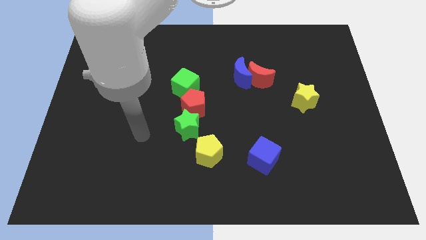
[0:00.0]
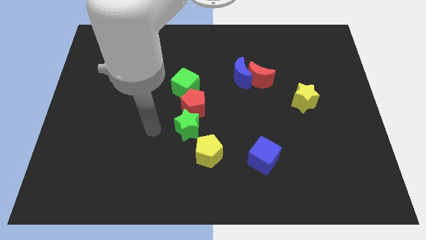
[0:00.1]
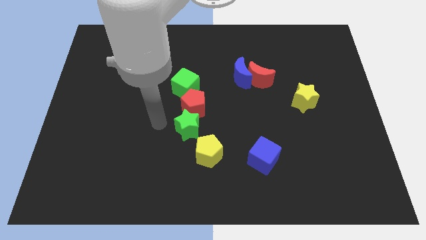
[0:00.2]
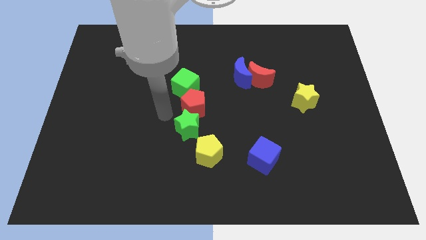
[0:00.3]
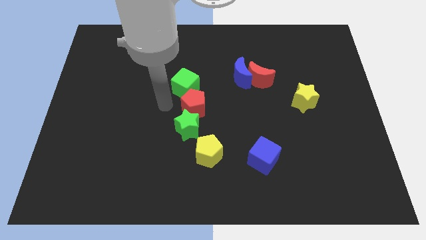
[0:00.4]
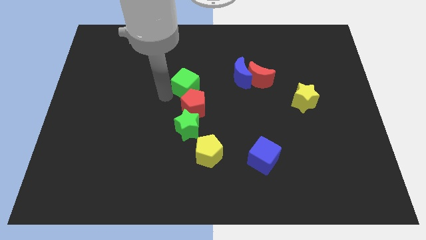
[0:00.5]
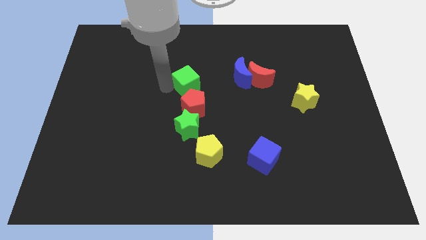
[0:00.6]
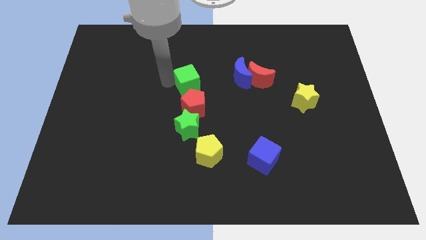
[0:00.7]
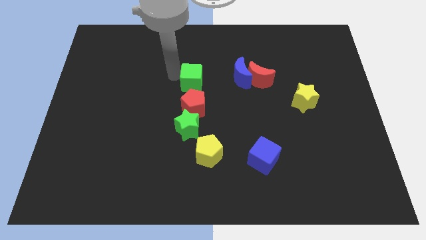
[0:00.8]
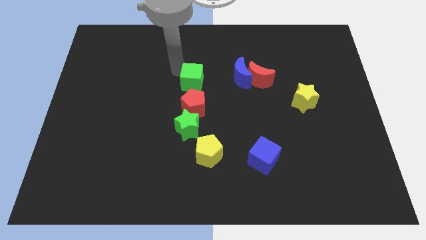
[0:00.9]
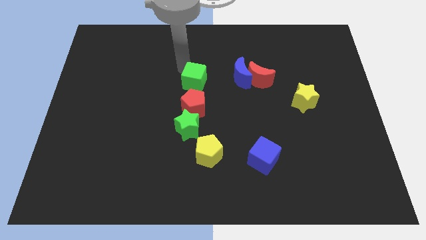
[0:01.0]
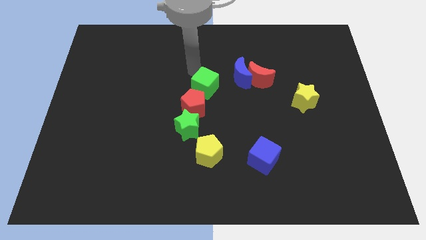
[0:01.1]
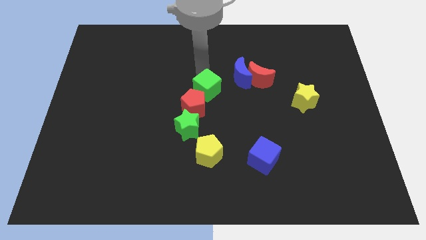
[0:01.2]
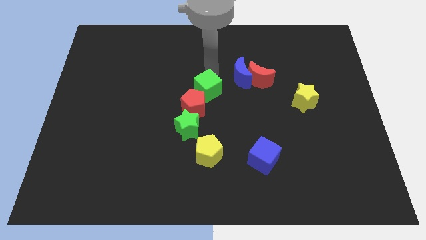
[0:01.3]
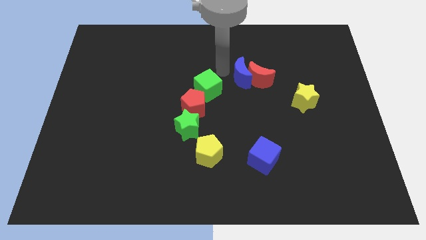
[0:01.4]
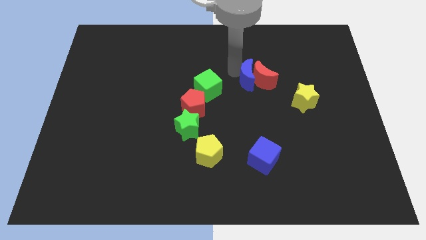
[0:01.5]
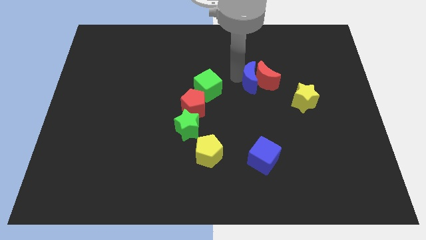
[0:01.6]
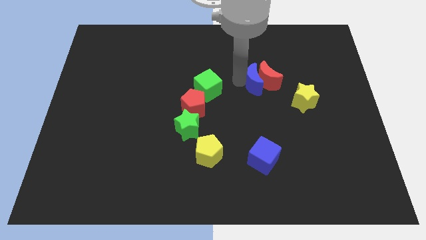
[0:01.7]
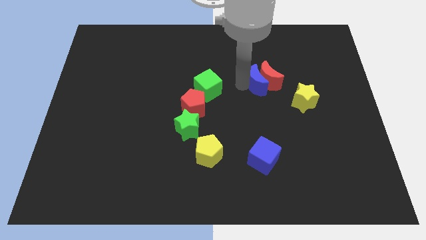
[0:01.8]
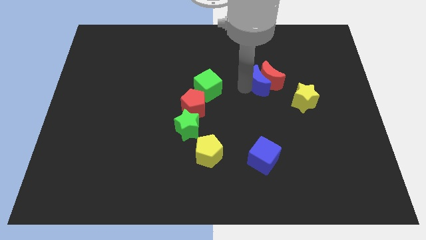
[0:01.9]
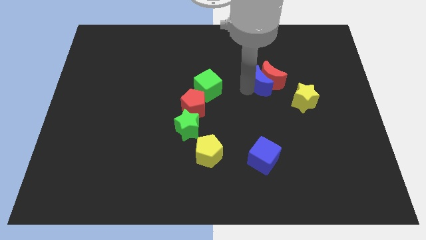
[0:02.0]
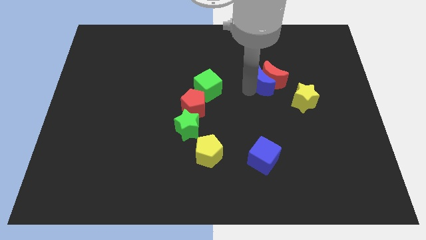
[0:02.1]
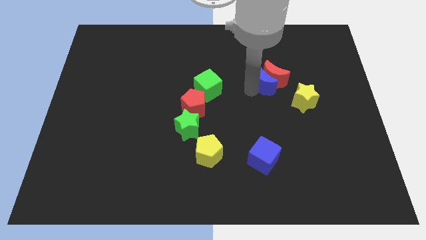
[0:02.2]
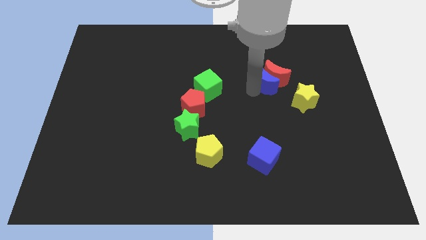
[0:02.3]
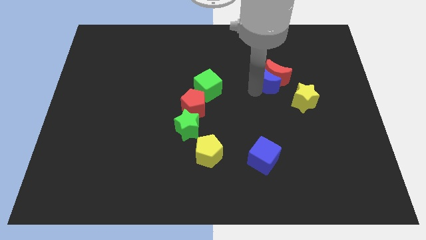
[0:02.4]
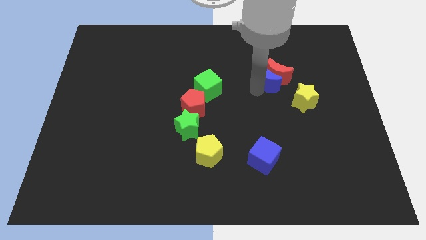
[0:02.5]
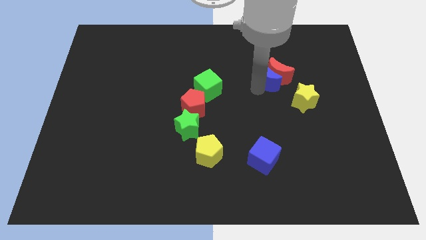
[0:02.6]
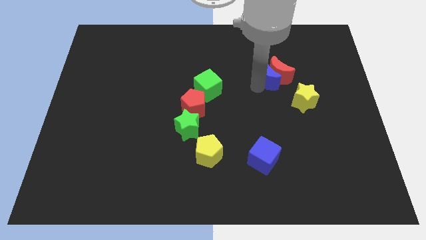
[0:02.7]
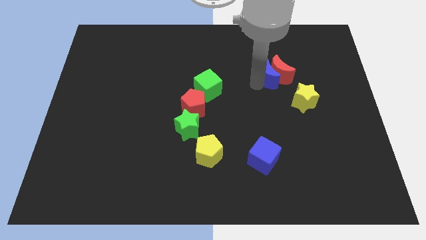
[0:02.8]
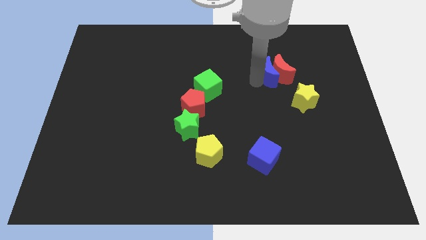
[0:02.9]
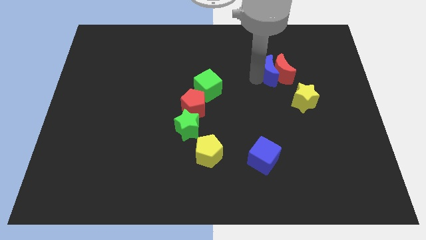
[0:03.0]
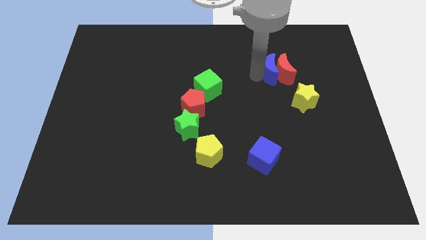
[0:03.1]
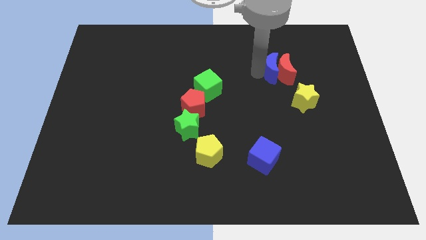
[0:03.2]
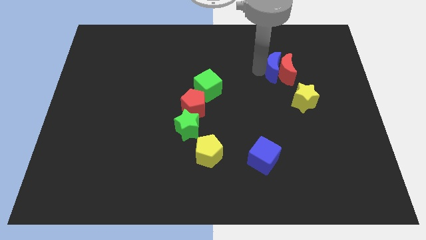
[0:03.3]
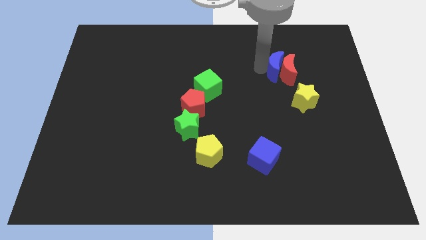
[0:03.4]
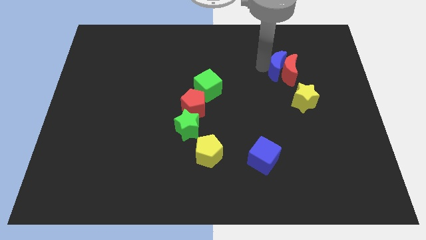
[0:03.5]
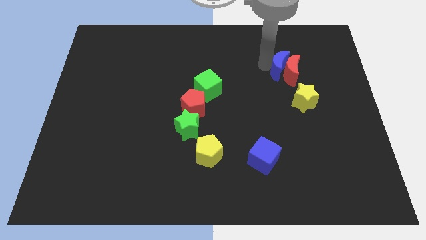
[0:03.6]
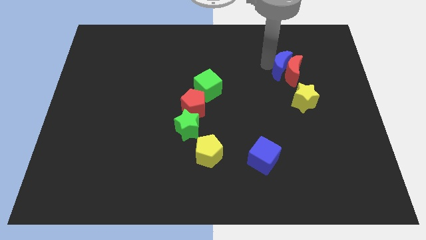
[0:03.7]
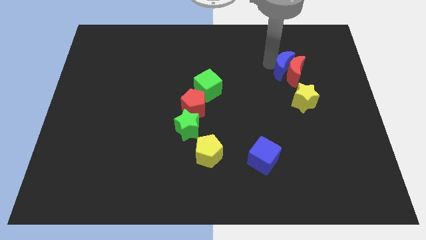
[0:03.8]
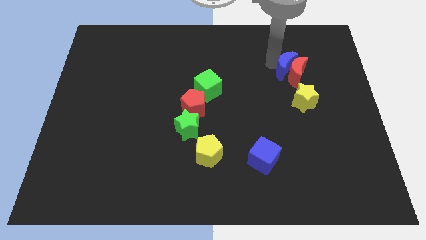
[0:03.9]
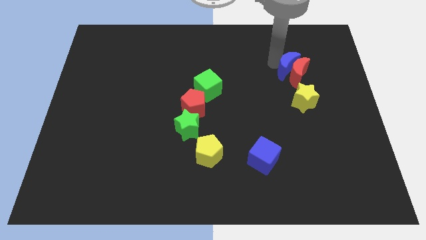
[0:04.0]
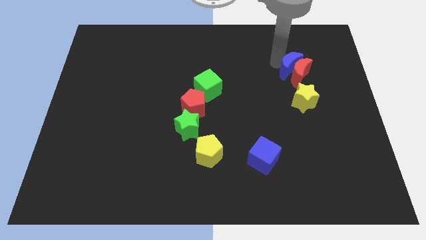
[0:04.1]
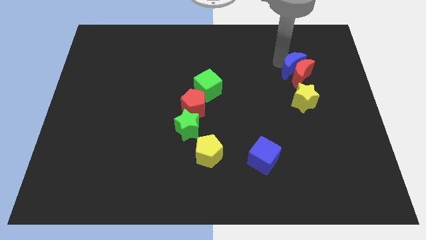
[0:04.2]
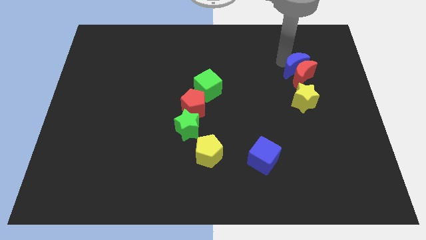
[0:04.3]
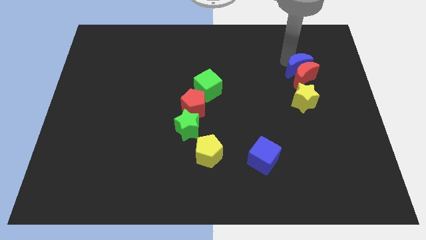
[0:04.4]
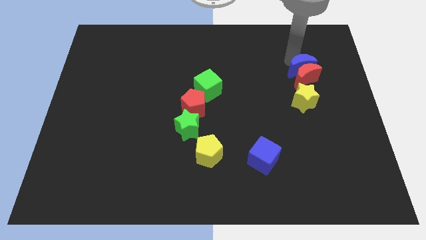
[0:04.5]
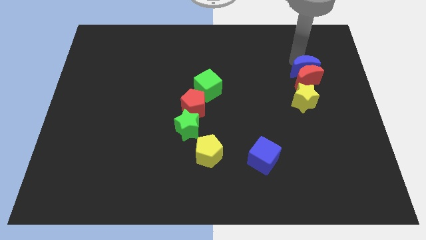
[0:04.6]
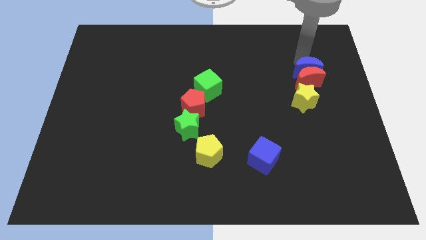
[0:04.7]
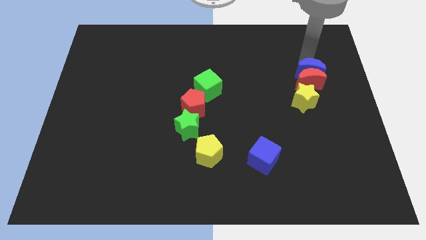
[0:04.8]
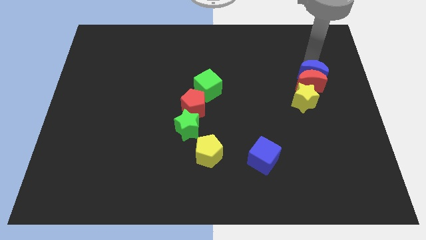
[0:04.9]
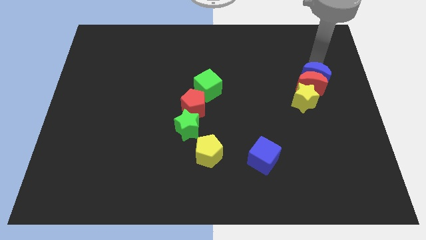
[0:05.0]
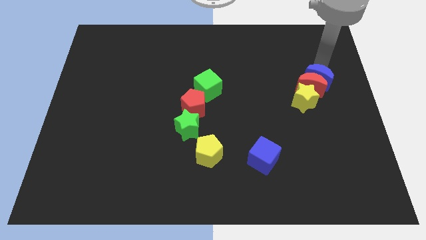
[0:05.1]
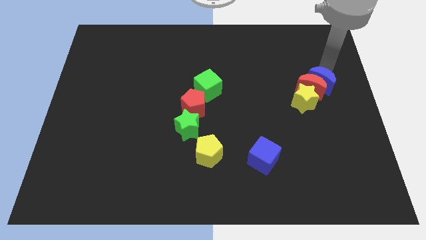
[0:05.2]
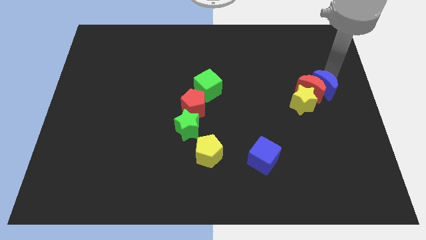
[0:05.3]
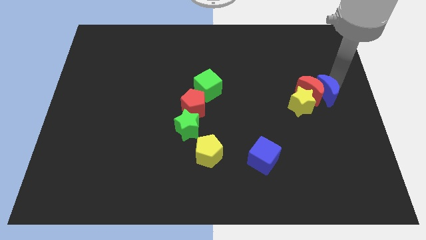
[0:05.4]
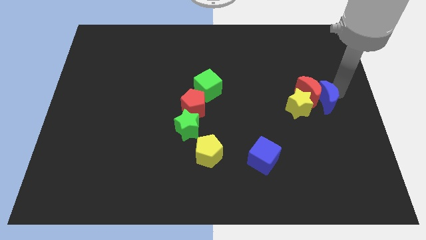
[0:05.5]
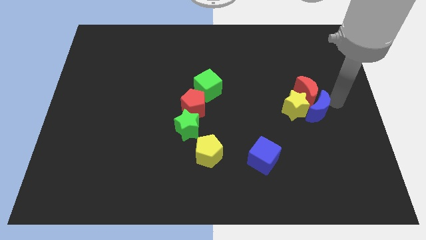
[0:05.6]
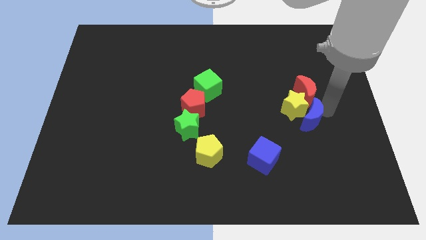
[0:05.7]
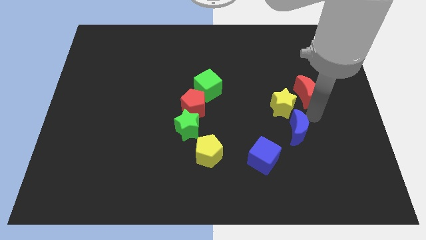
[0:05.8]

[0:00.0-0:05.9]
separate the red moon from the blue moon

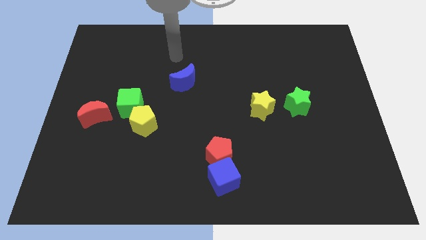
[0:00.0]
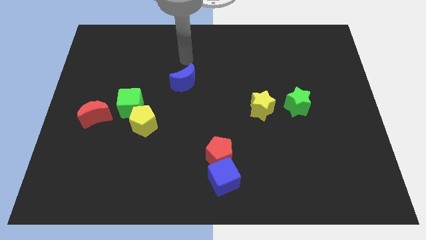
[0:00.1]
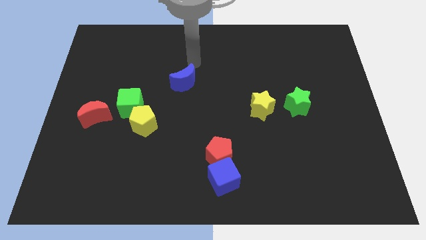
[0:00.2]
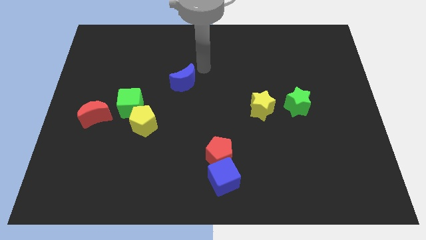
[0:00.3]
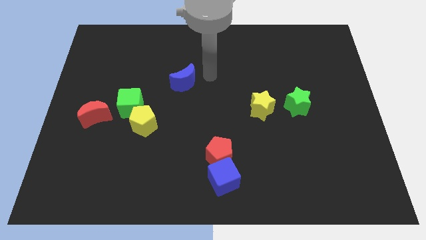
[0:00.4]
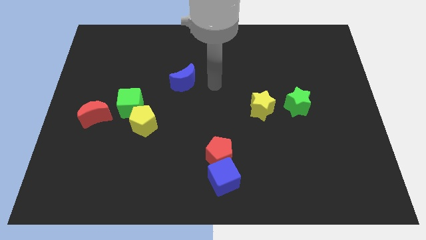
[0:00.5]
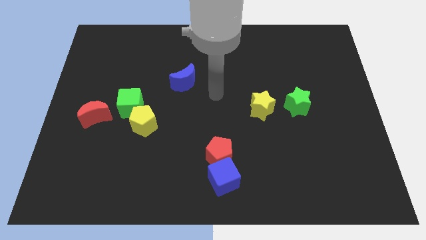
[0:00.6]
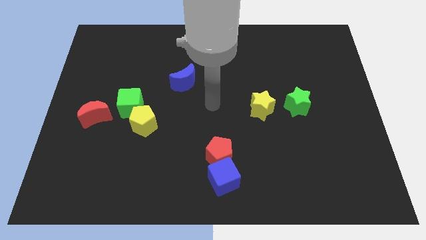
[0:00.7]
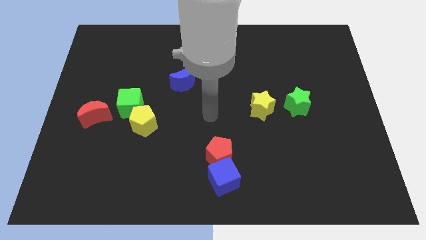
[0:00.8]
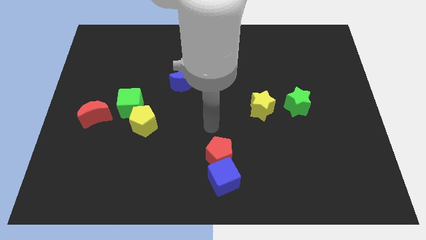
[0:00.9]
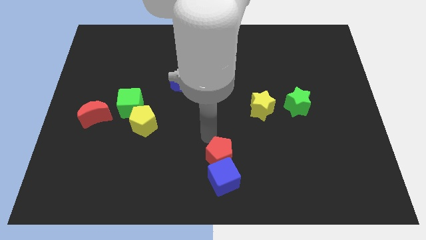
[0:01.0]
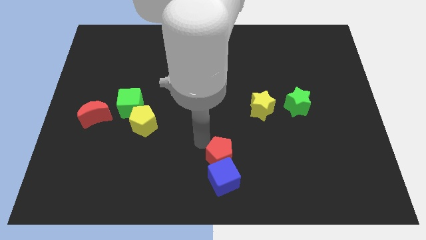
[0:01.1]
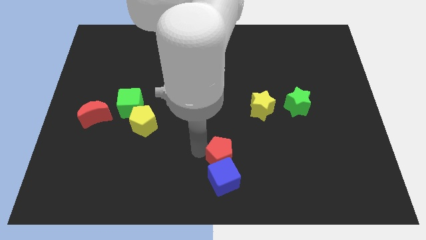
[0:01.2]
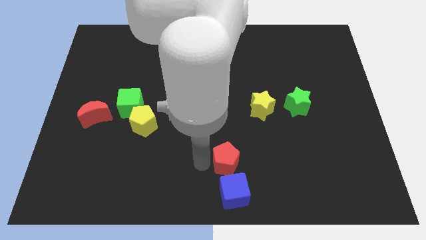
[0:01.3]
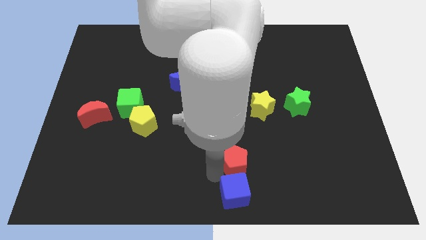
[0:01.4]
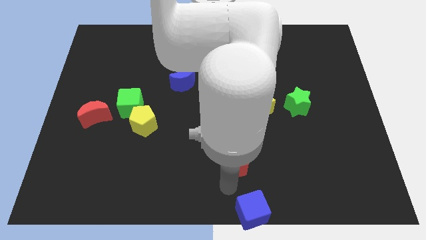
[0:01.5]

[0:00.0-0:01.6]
separate the red pentagon from the blue cube

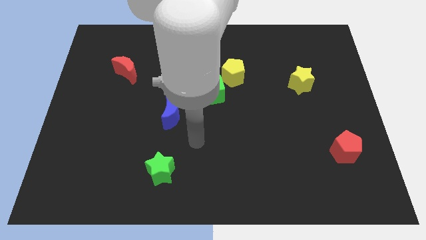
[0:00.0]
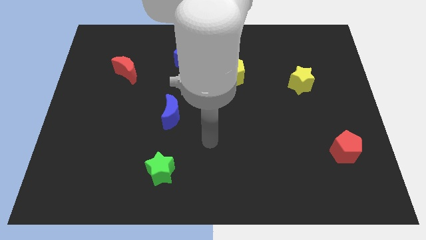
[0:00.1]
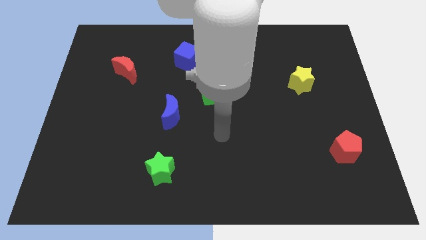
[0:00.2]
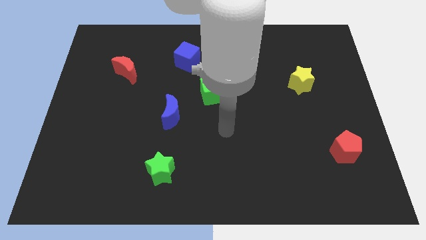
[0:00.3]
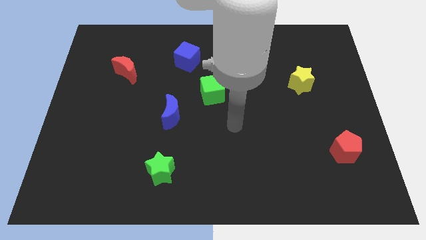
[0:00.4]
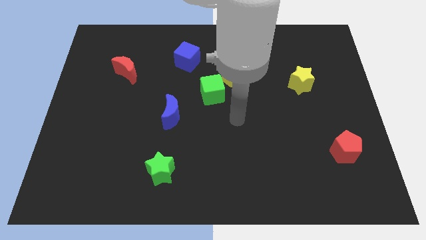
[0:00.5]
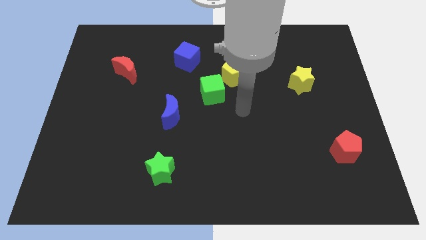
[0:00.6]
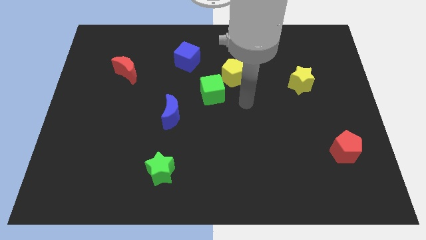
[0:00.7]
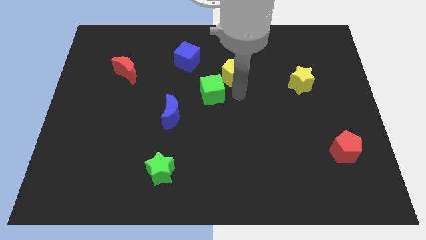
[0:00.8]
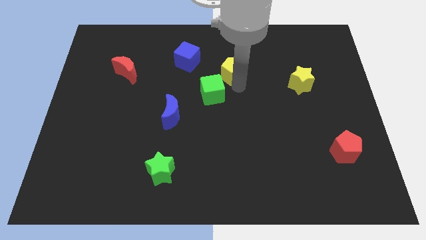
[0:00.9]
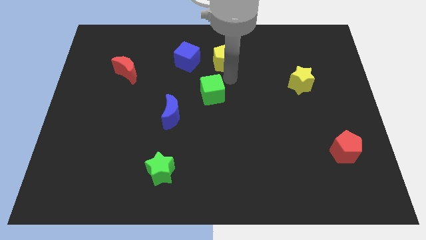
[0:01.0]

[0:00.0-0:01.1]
pull the green cube apart from the yellow pentagon

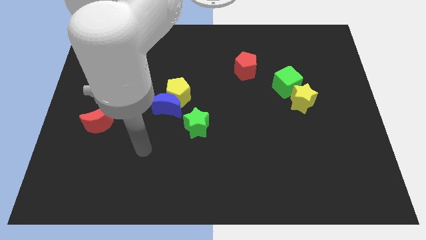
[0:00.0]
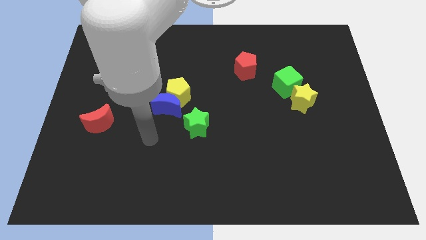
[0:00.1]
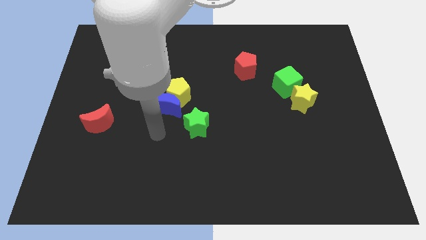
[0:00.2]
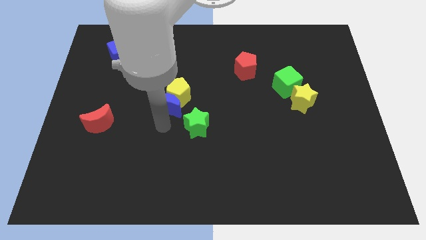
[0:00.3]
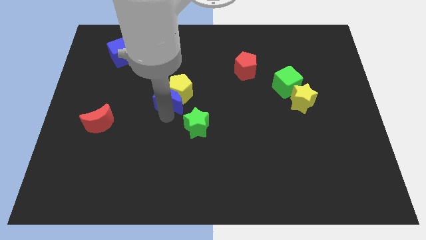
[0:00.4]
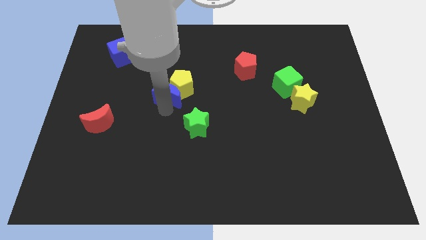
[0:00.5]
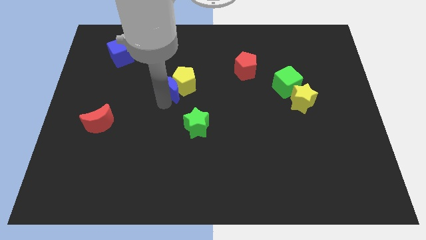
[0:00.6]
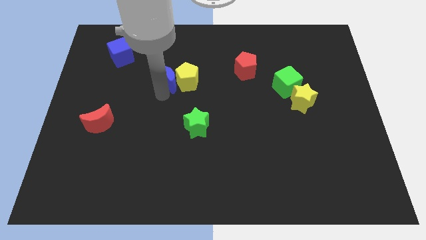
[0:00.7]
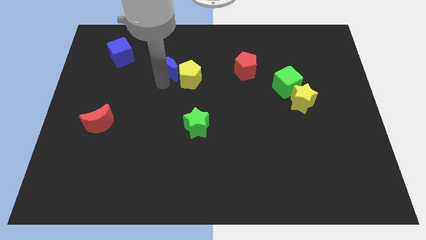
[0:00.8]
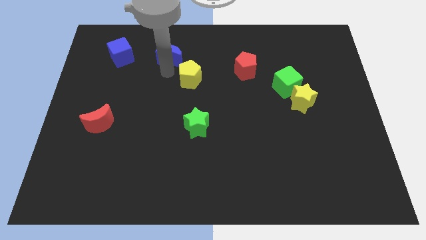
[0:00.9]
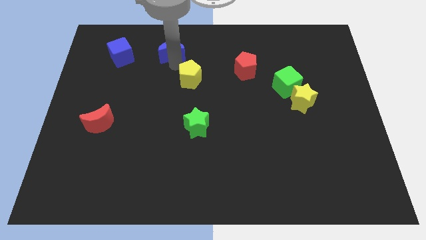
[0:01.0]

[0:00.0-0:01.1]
pull the yellow pentagon apart from the blue moon
